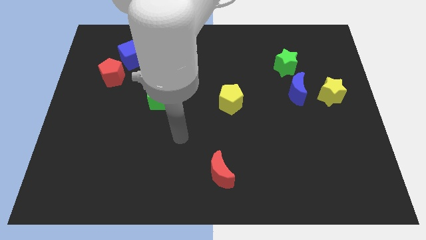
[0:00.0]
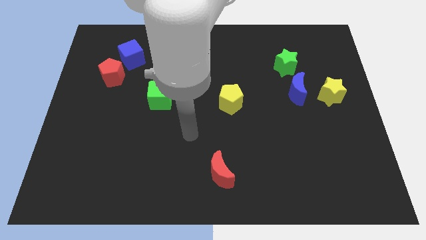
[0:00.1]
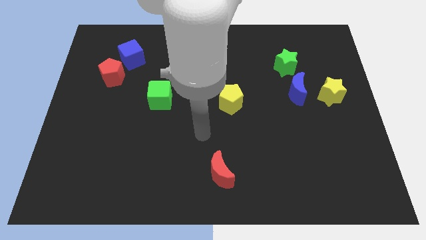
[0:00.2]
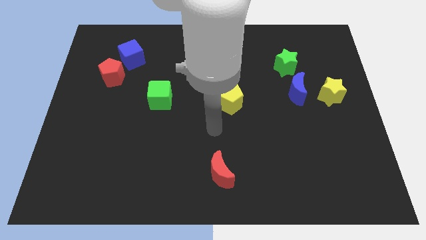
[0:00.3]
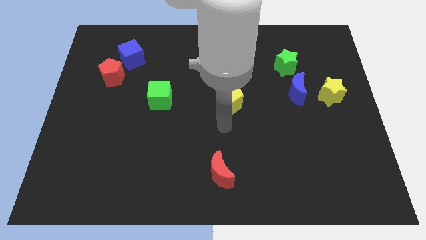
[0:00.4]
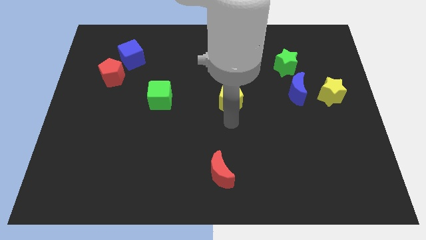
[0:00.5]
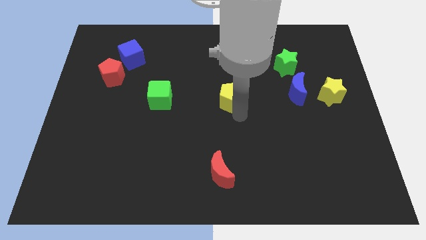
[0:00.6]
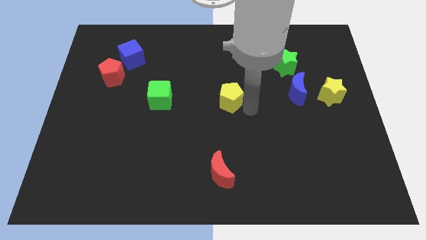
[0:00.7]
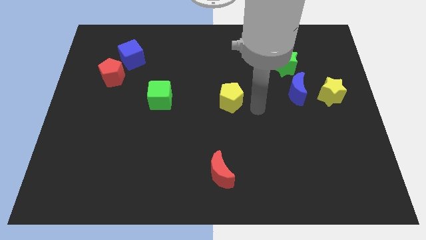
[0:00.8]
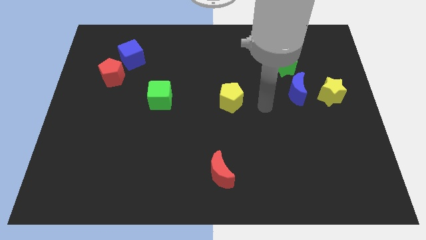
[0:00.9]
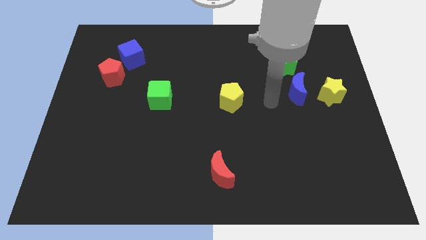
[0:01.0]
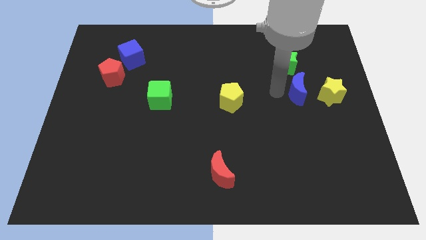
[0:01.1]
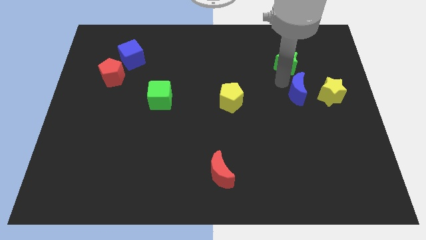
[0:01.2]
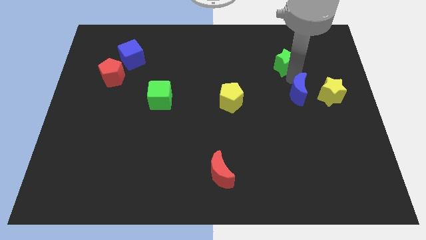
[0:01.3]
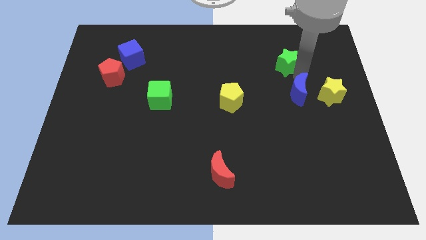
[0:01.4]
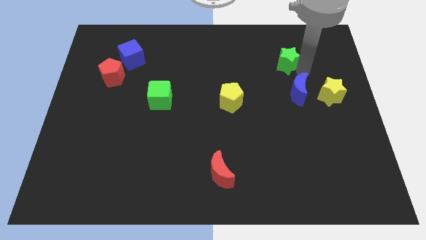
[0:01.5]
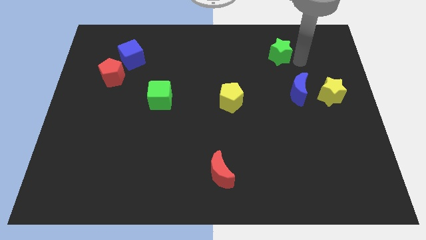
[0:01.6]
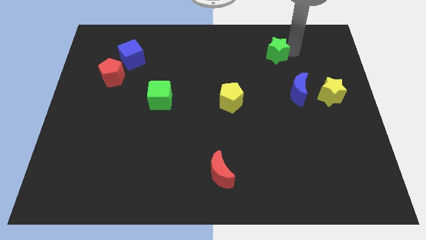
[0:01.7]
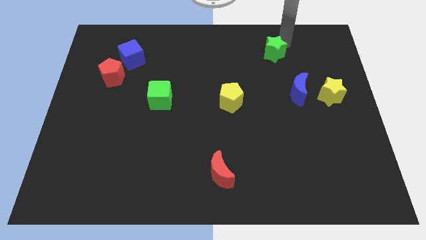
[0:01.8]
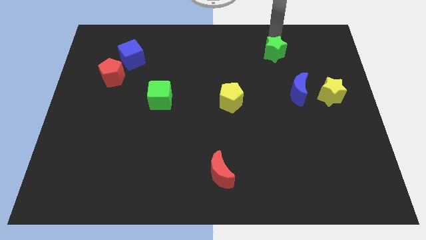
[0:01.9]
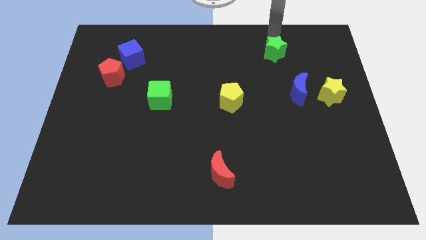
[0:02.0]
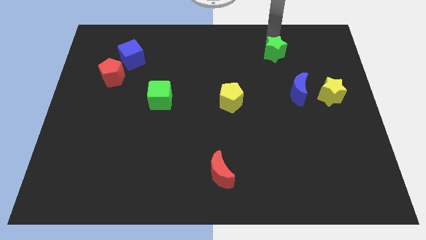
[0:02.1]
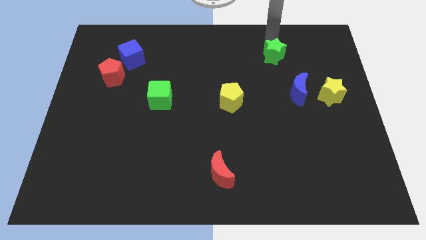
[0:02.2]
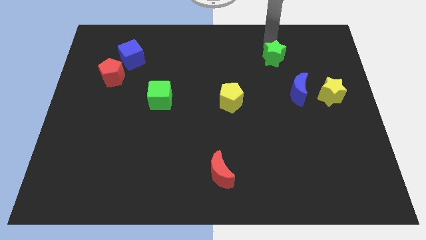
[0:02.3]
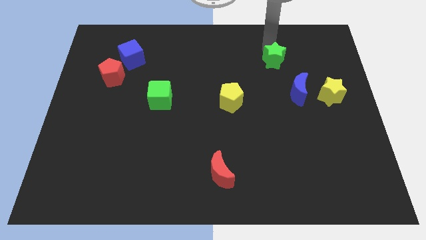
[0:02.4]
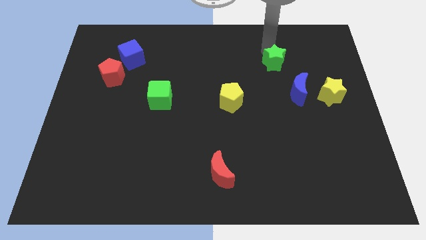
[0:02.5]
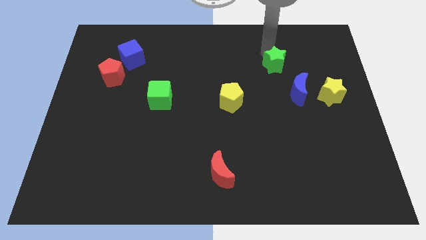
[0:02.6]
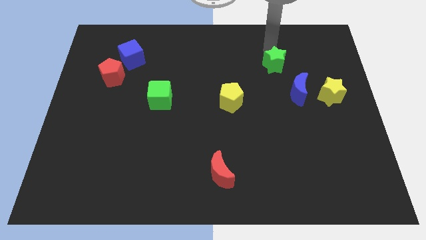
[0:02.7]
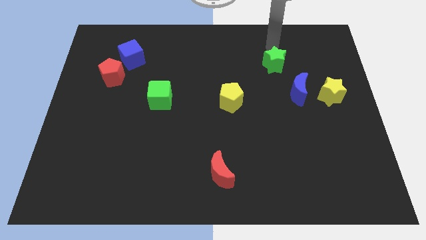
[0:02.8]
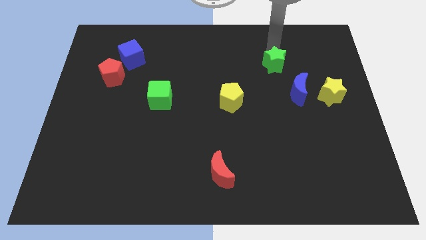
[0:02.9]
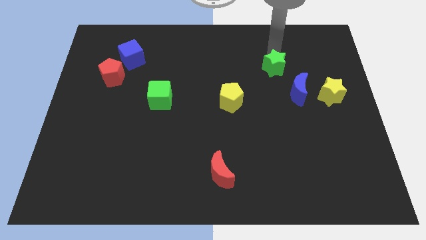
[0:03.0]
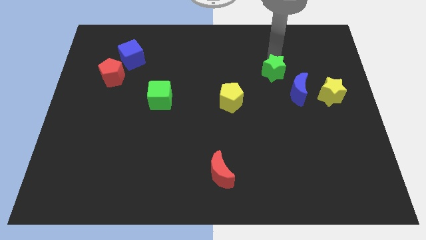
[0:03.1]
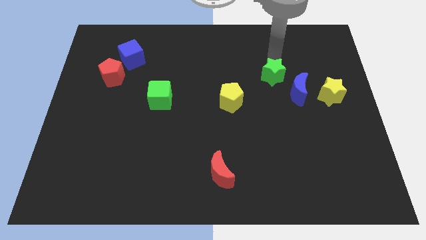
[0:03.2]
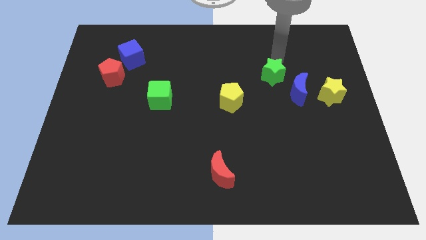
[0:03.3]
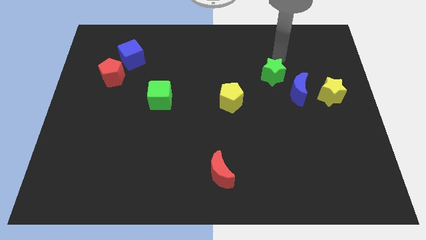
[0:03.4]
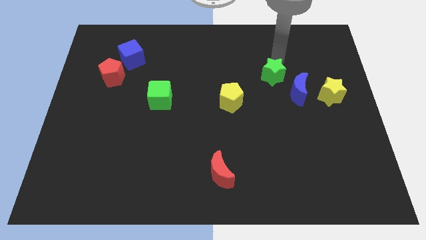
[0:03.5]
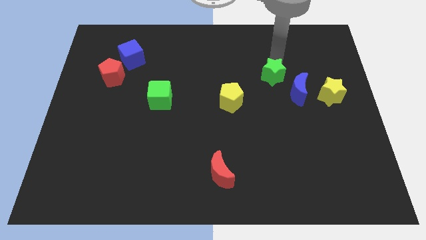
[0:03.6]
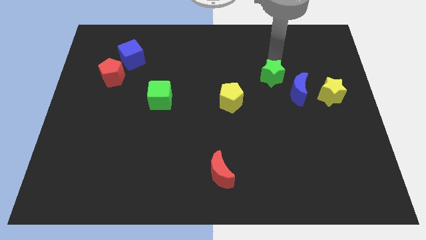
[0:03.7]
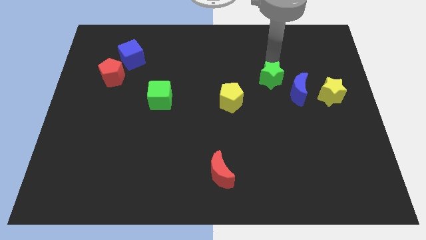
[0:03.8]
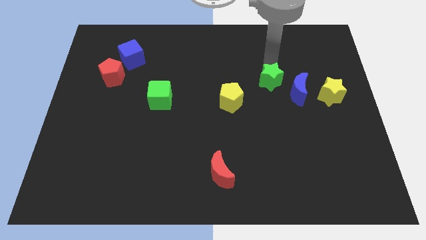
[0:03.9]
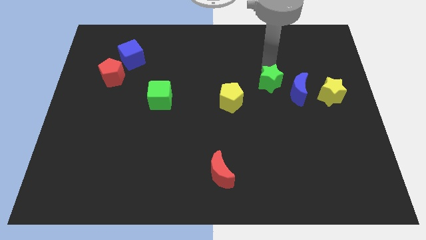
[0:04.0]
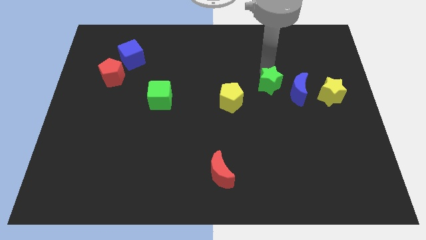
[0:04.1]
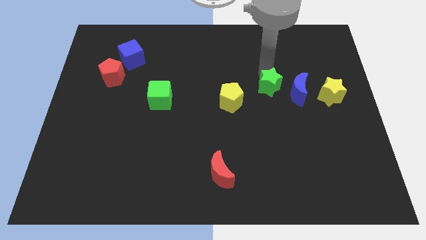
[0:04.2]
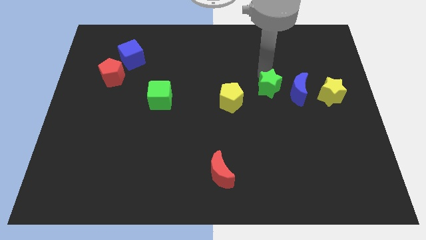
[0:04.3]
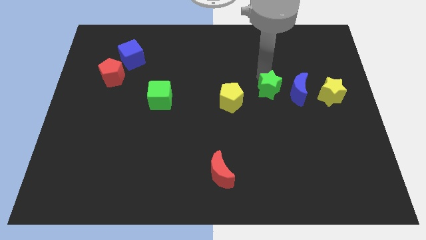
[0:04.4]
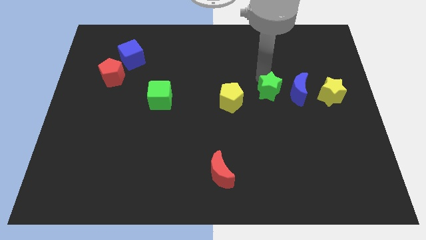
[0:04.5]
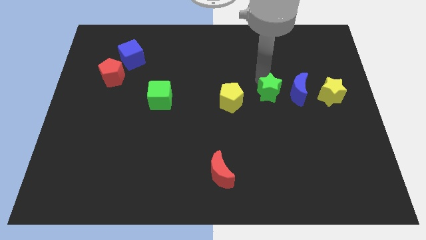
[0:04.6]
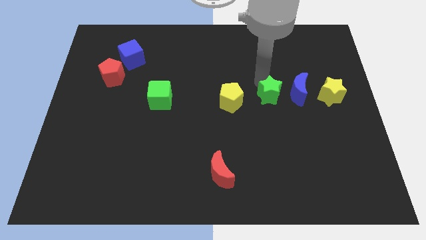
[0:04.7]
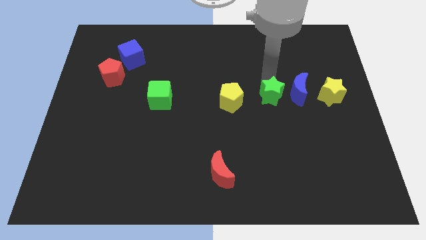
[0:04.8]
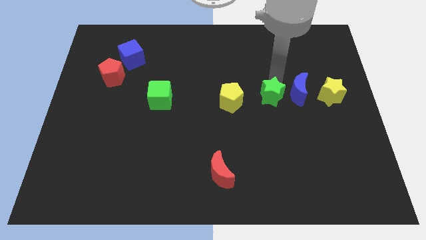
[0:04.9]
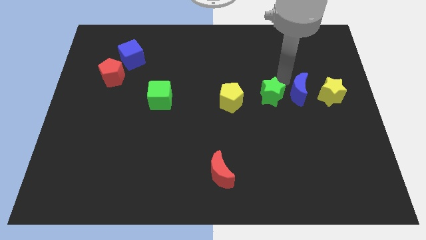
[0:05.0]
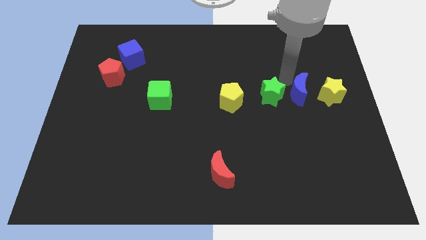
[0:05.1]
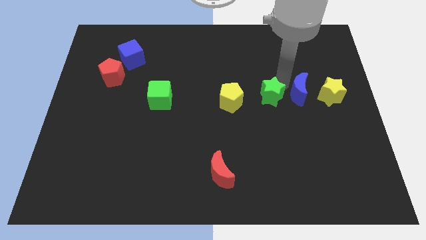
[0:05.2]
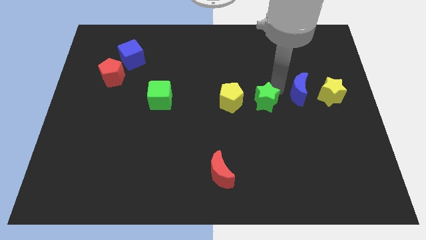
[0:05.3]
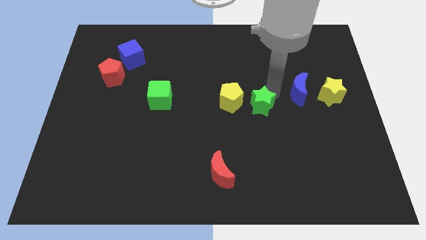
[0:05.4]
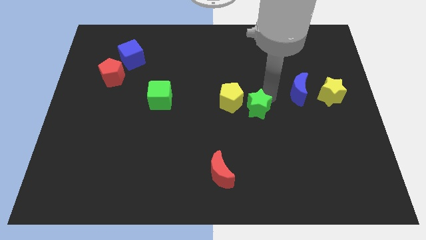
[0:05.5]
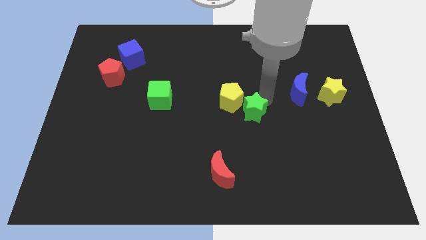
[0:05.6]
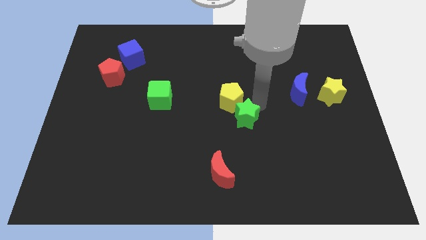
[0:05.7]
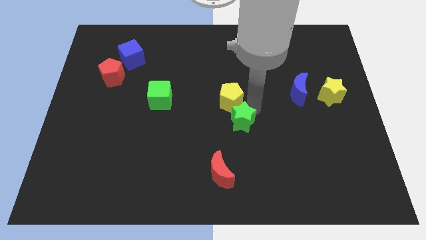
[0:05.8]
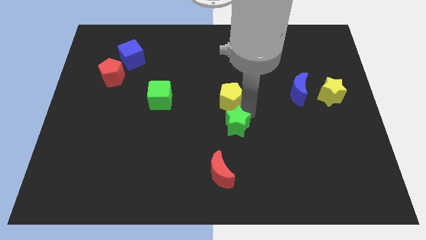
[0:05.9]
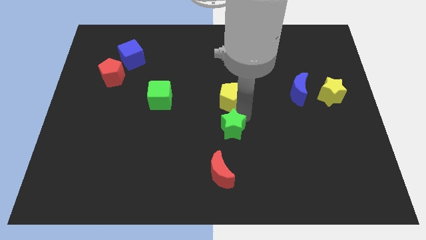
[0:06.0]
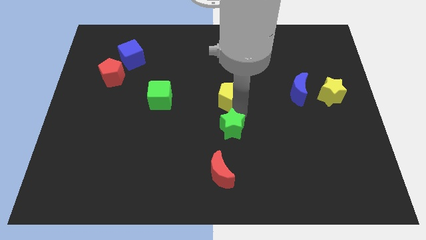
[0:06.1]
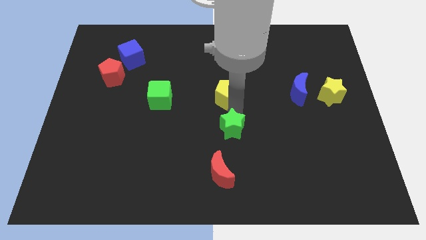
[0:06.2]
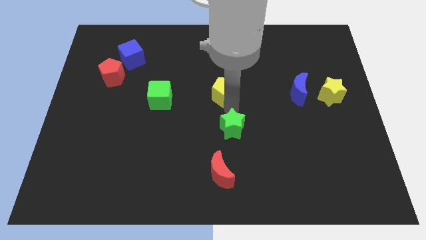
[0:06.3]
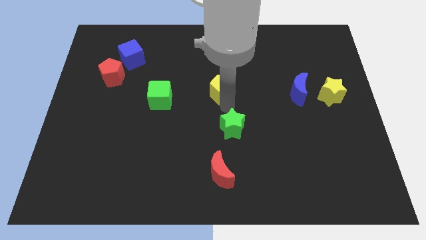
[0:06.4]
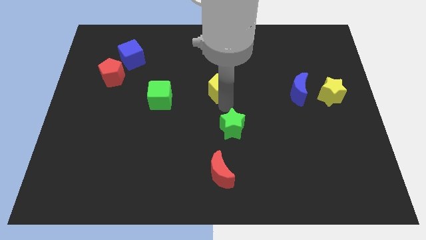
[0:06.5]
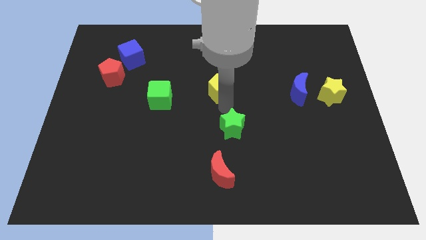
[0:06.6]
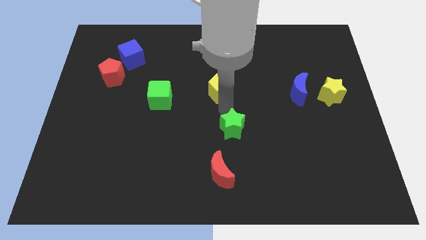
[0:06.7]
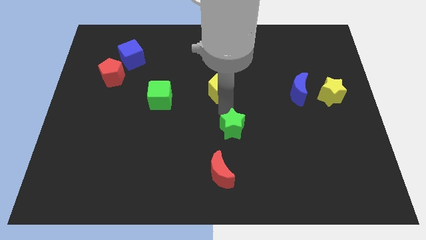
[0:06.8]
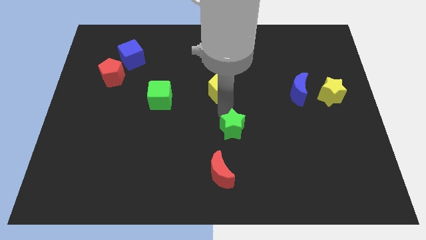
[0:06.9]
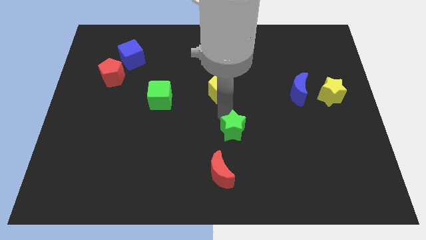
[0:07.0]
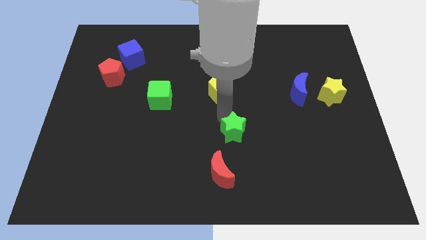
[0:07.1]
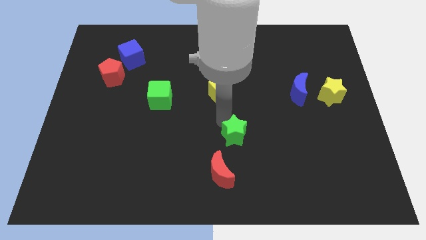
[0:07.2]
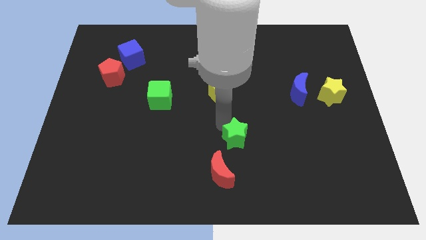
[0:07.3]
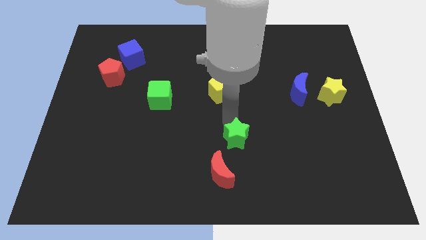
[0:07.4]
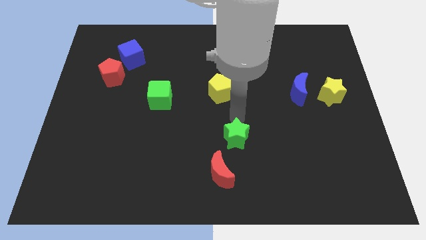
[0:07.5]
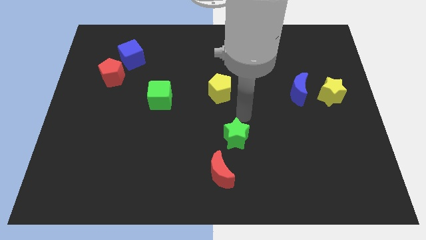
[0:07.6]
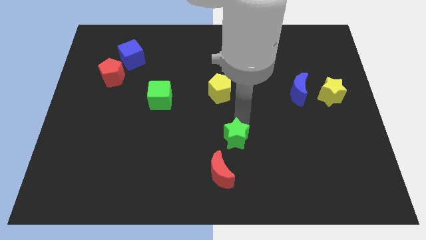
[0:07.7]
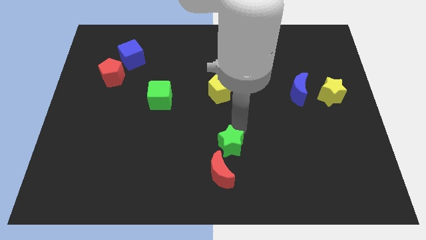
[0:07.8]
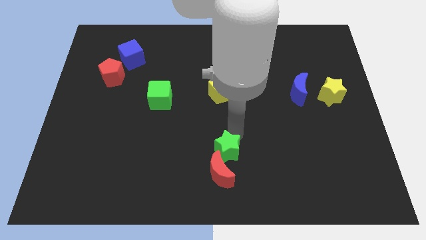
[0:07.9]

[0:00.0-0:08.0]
put the green star to the red moon
